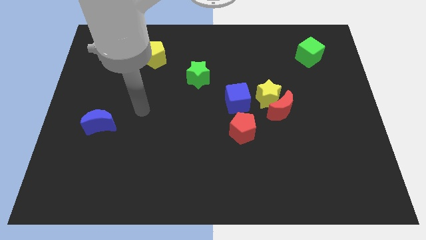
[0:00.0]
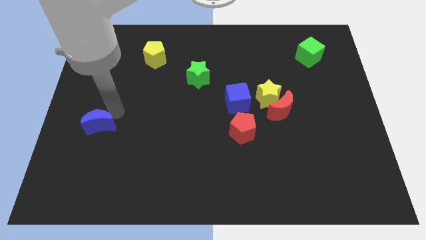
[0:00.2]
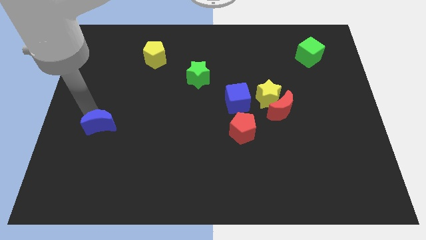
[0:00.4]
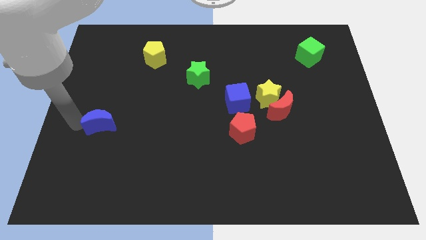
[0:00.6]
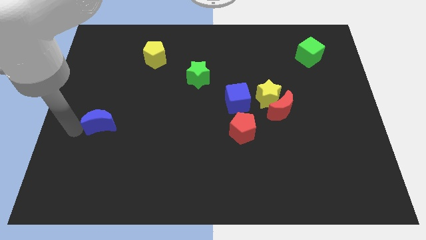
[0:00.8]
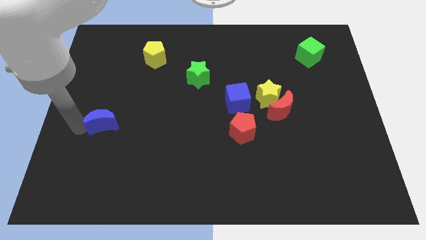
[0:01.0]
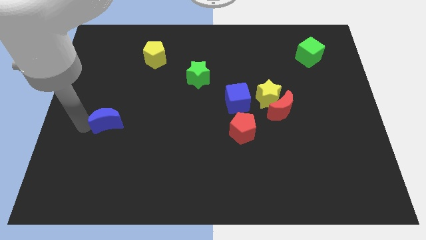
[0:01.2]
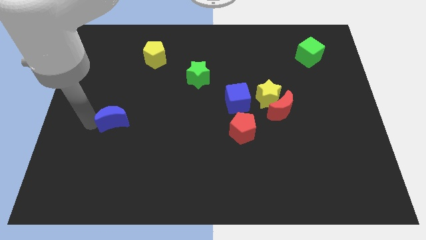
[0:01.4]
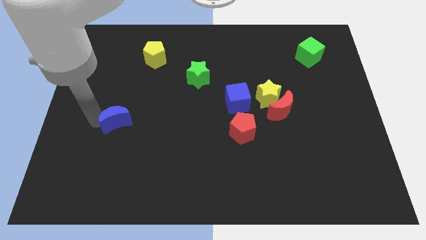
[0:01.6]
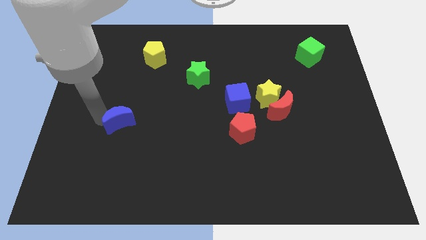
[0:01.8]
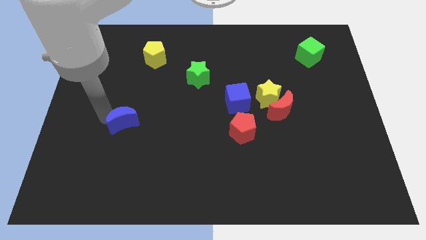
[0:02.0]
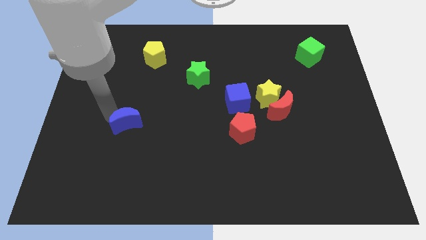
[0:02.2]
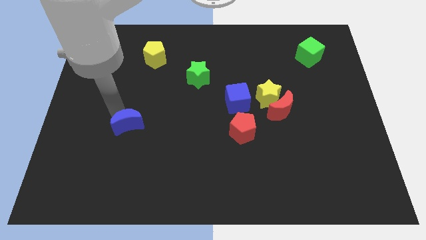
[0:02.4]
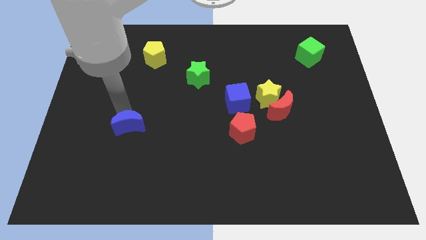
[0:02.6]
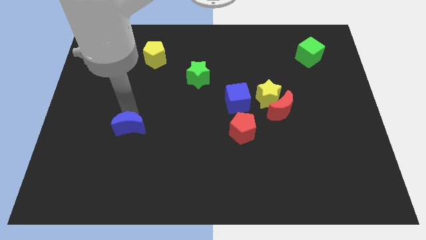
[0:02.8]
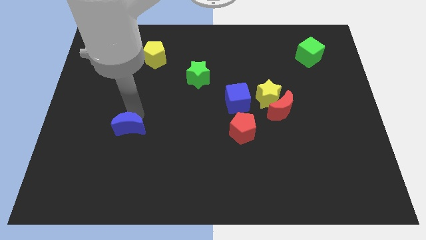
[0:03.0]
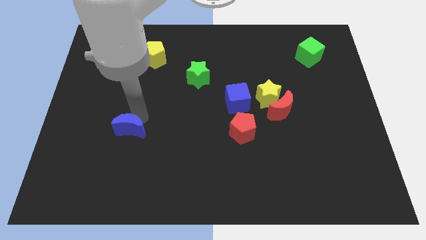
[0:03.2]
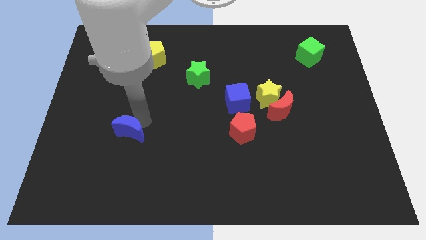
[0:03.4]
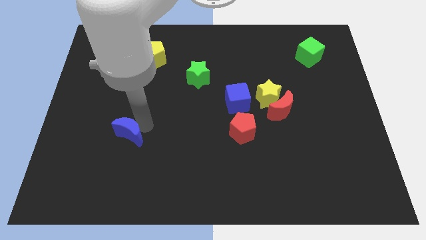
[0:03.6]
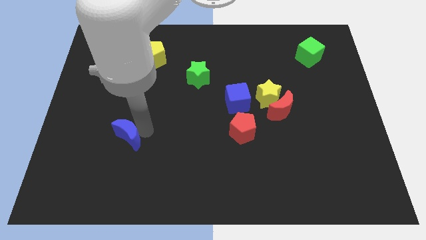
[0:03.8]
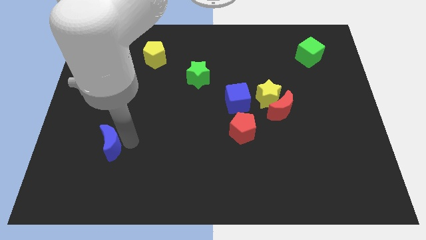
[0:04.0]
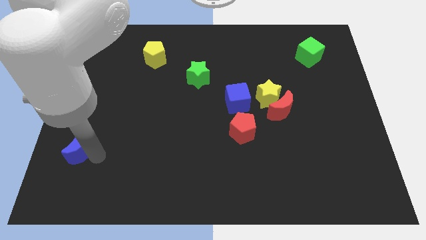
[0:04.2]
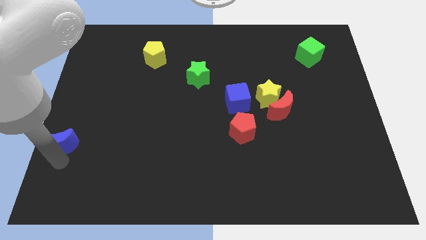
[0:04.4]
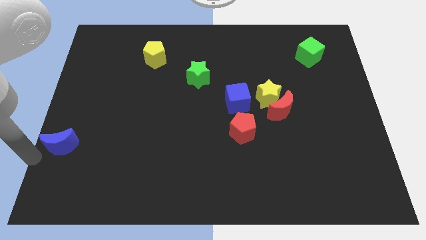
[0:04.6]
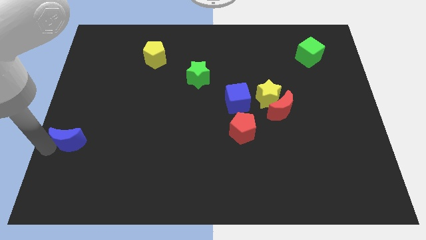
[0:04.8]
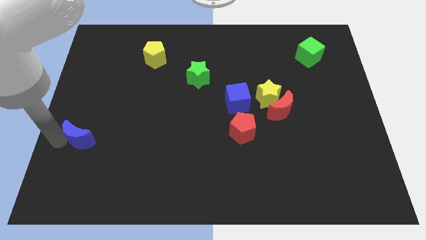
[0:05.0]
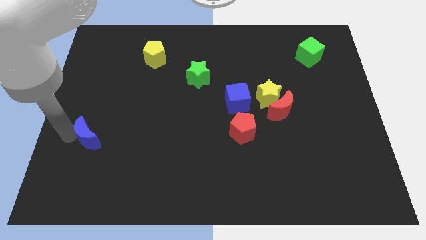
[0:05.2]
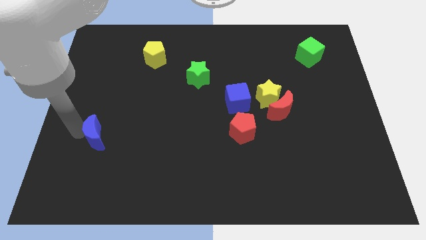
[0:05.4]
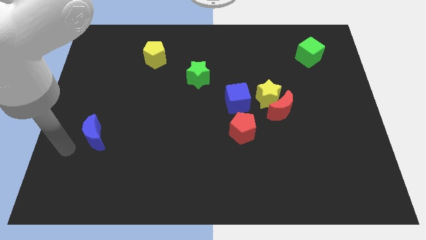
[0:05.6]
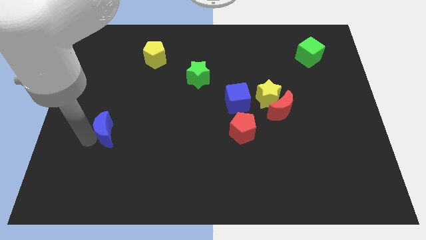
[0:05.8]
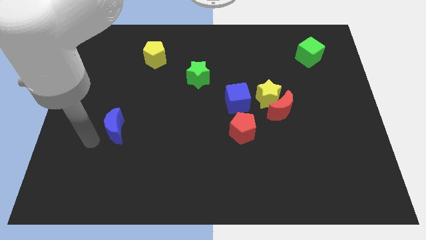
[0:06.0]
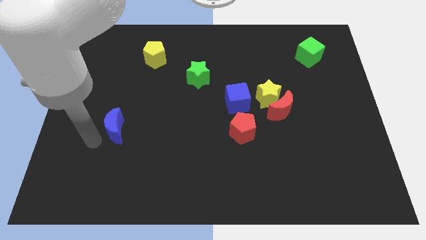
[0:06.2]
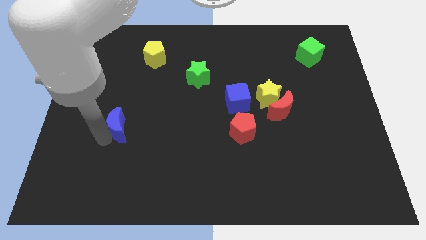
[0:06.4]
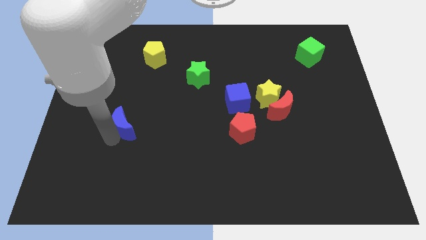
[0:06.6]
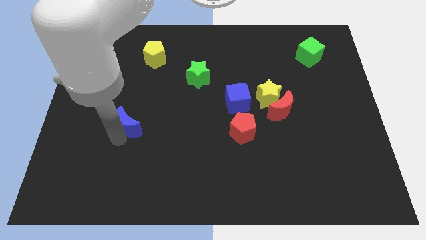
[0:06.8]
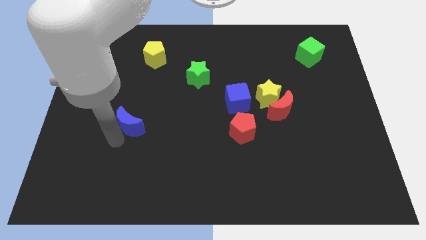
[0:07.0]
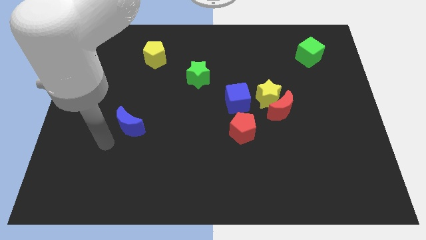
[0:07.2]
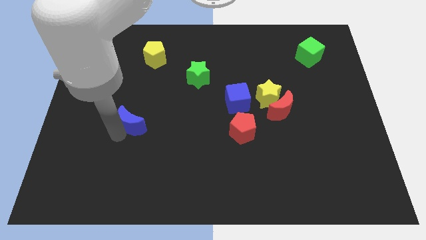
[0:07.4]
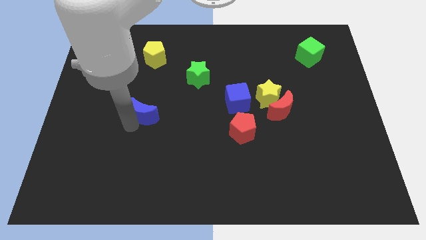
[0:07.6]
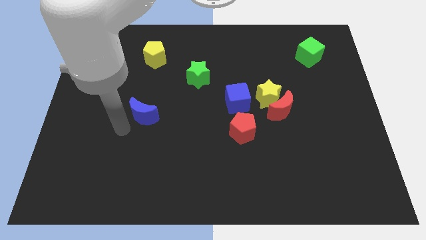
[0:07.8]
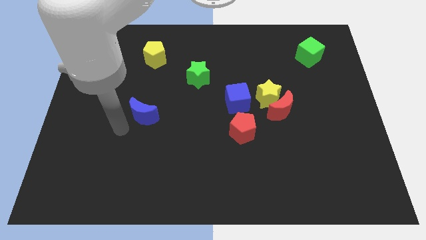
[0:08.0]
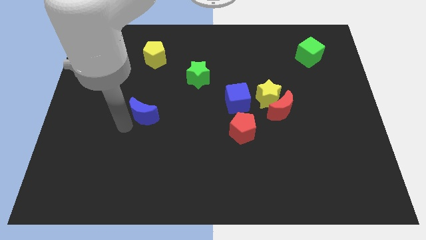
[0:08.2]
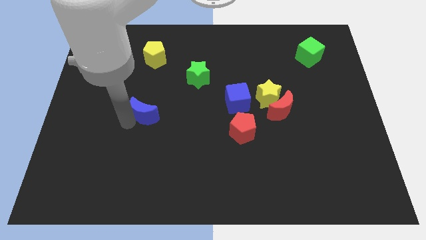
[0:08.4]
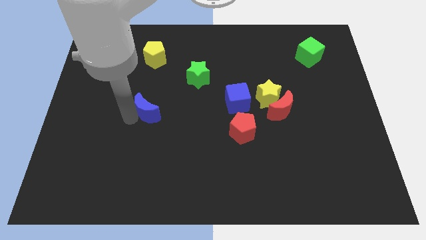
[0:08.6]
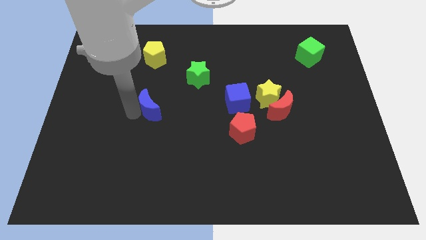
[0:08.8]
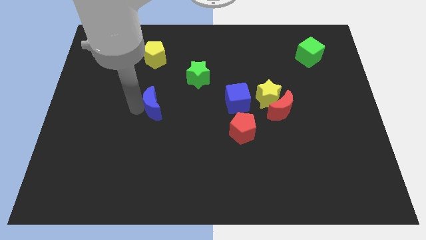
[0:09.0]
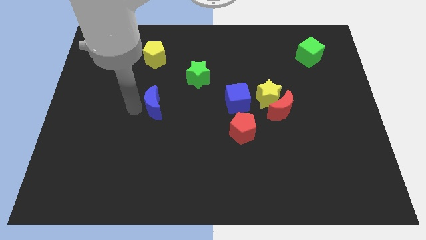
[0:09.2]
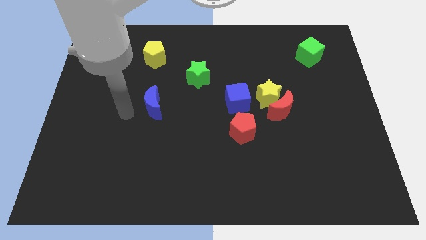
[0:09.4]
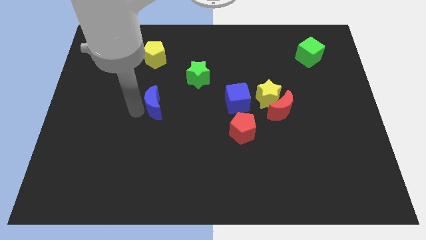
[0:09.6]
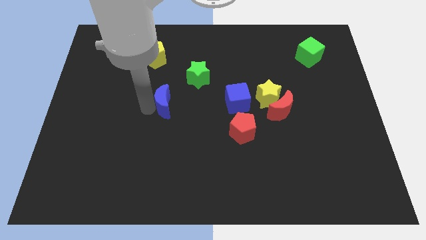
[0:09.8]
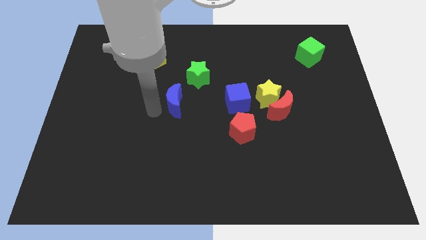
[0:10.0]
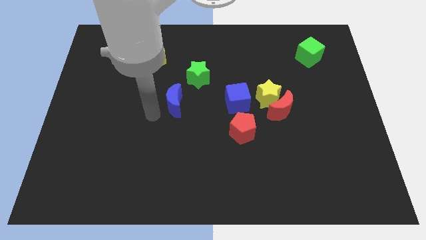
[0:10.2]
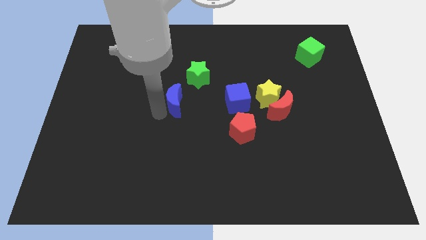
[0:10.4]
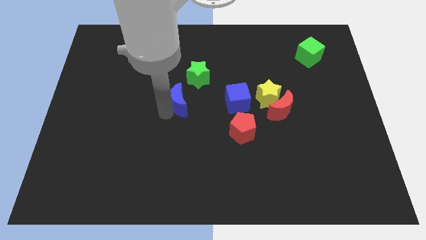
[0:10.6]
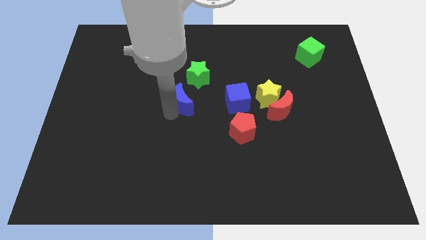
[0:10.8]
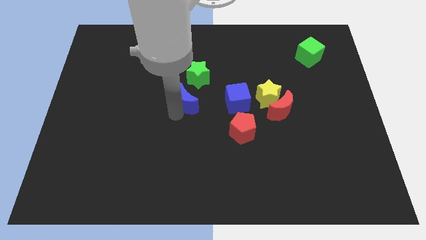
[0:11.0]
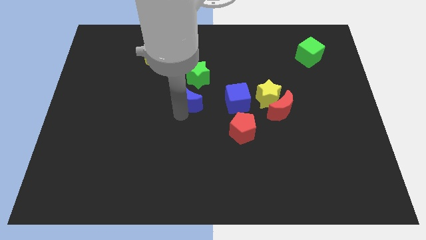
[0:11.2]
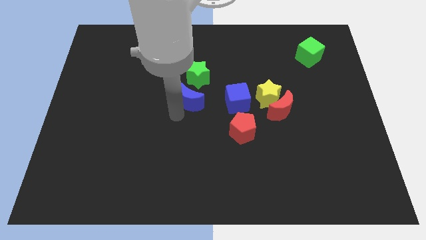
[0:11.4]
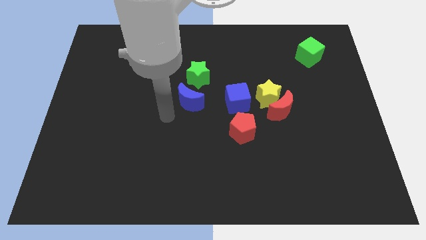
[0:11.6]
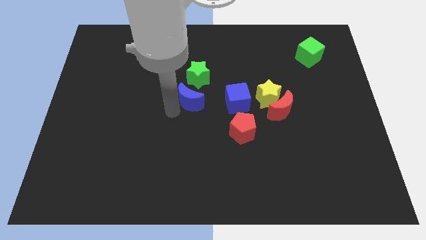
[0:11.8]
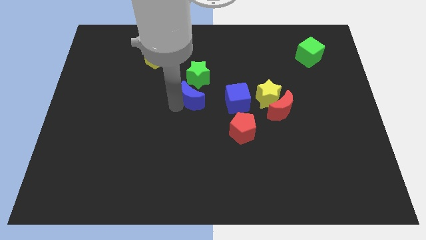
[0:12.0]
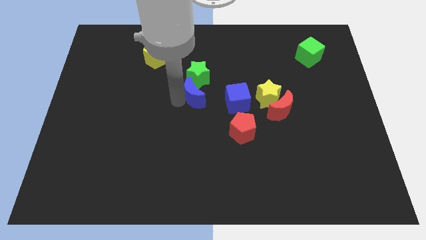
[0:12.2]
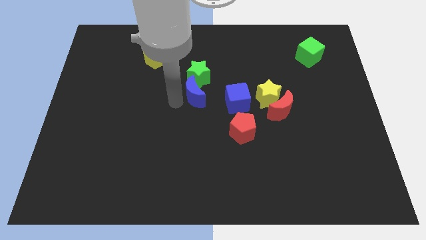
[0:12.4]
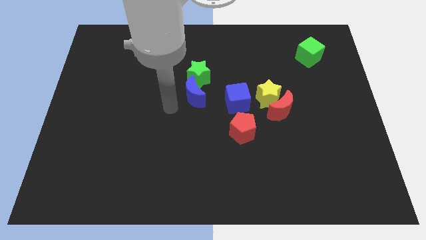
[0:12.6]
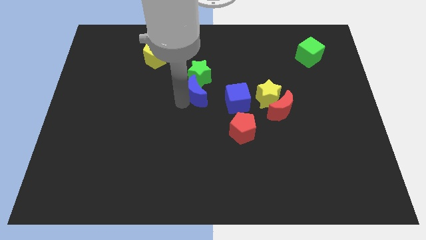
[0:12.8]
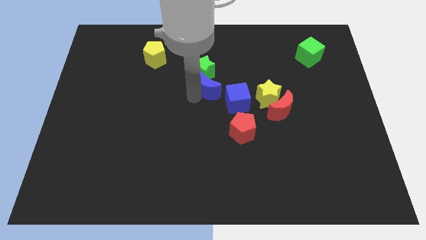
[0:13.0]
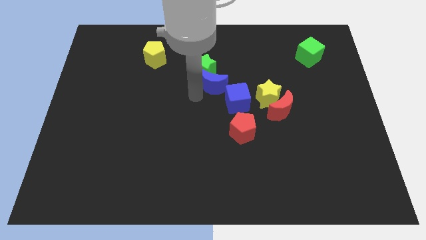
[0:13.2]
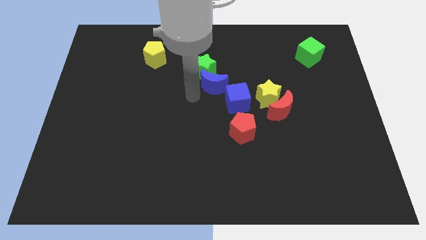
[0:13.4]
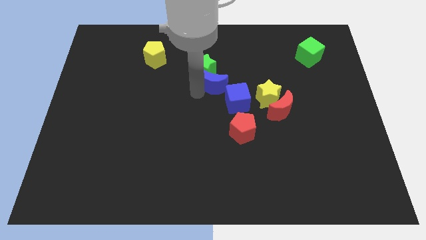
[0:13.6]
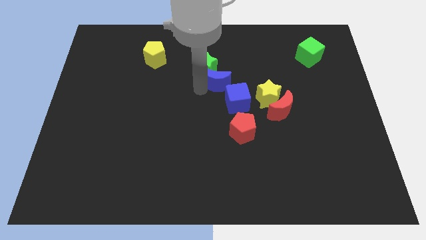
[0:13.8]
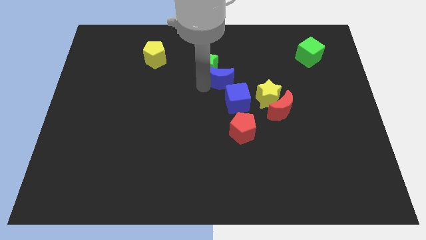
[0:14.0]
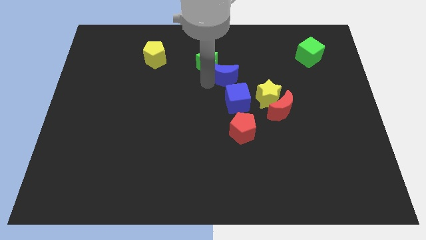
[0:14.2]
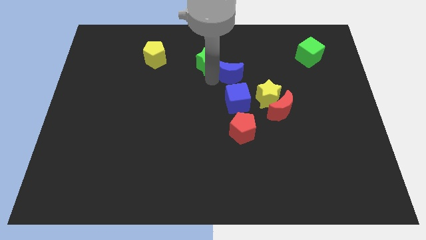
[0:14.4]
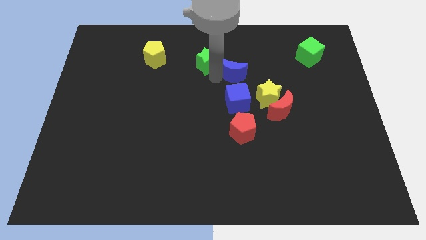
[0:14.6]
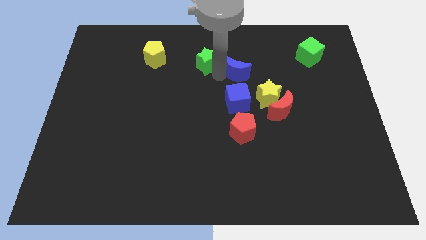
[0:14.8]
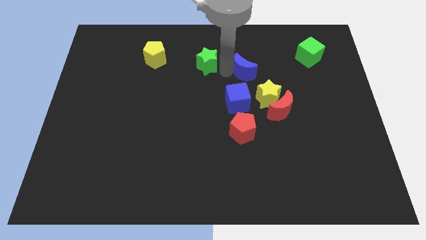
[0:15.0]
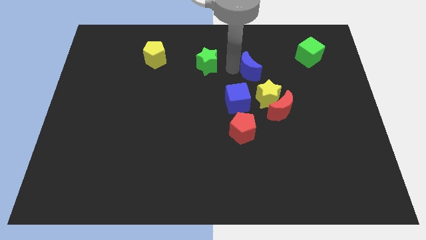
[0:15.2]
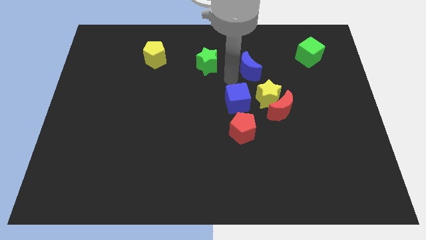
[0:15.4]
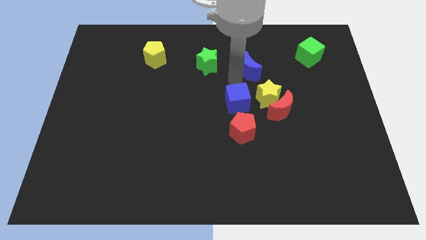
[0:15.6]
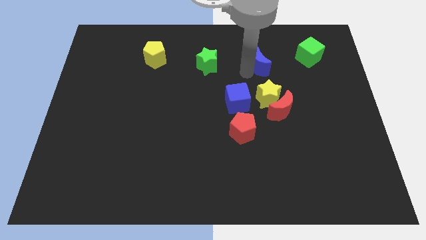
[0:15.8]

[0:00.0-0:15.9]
slide the blue moon just left of the green cube
